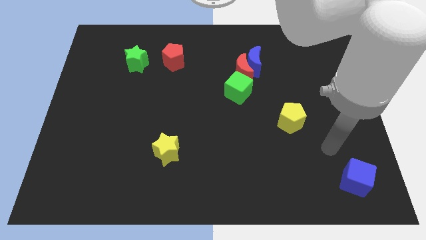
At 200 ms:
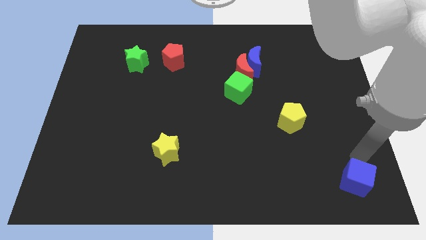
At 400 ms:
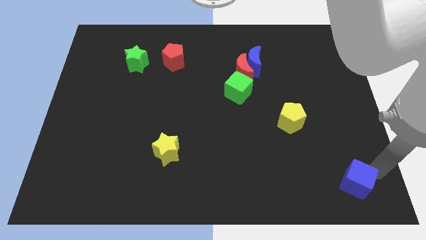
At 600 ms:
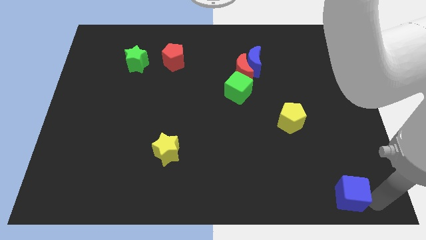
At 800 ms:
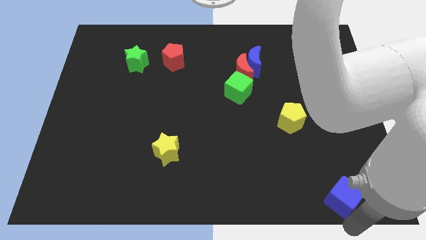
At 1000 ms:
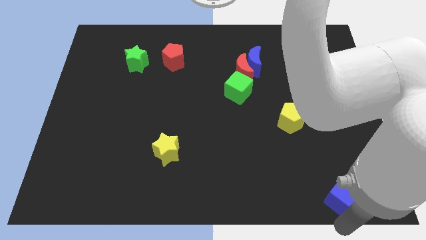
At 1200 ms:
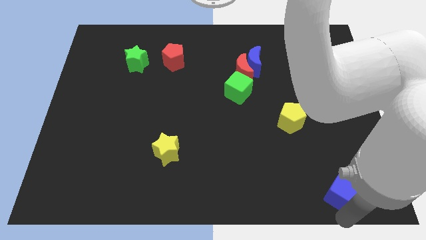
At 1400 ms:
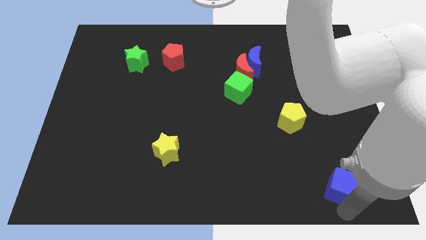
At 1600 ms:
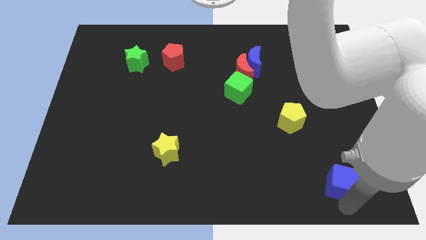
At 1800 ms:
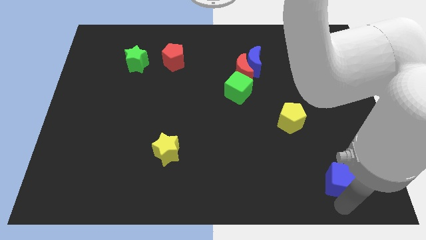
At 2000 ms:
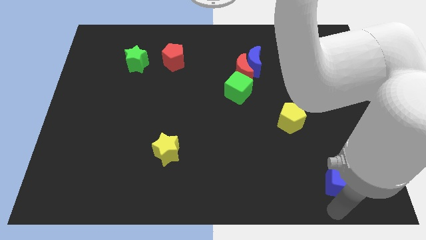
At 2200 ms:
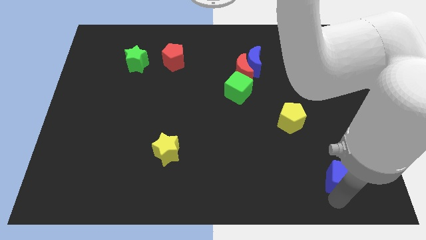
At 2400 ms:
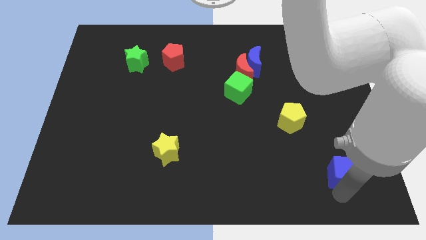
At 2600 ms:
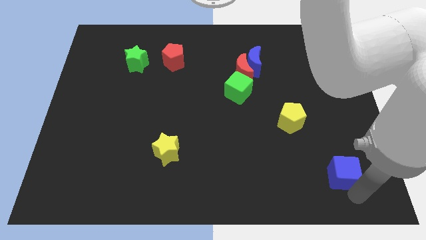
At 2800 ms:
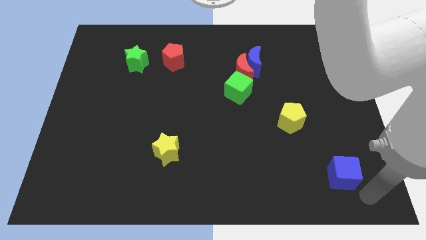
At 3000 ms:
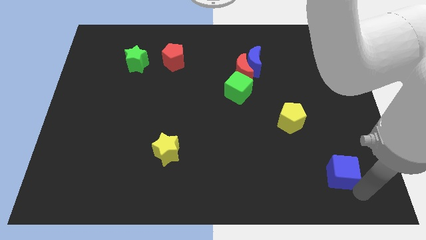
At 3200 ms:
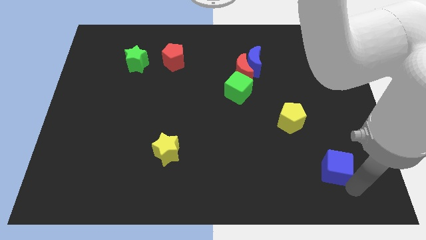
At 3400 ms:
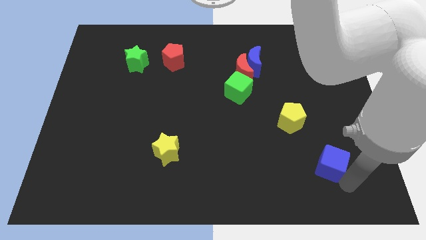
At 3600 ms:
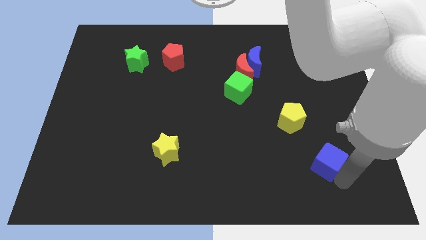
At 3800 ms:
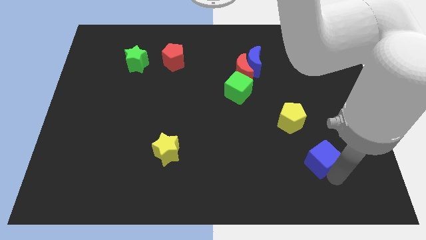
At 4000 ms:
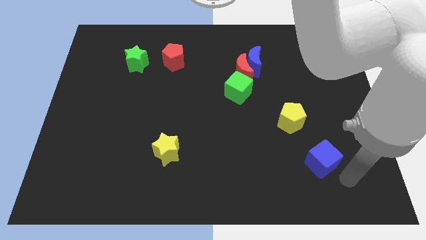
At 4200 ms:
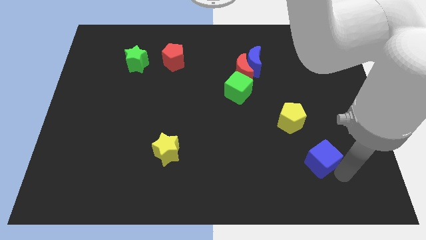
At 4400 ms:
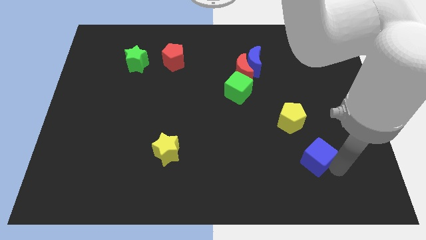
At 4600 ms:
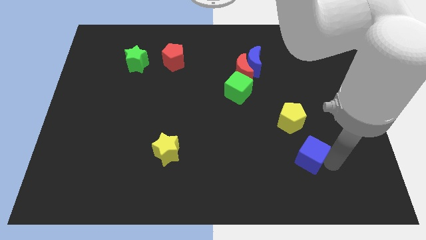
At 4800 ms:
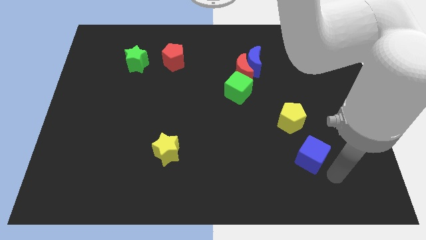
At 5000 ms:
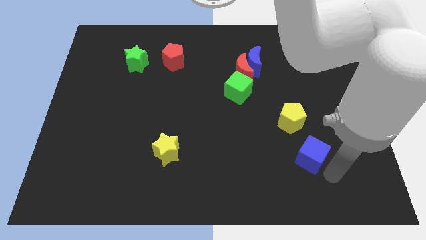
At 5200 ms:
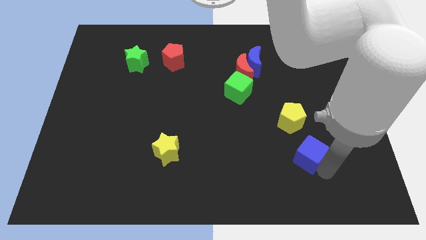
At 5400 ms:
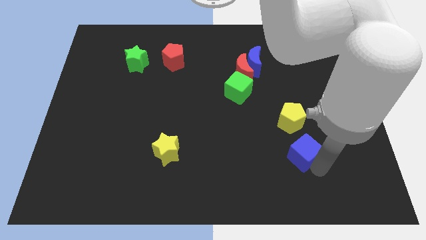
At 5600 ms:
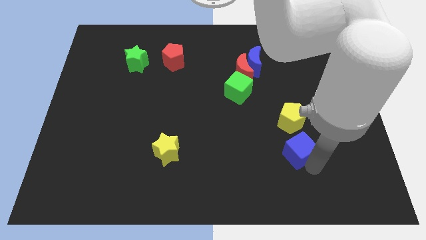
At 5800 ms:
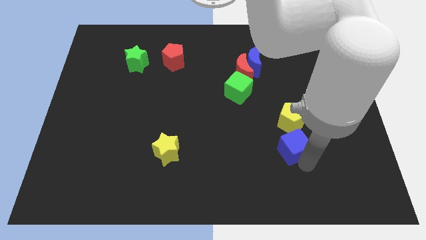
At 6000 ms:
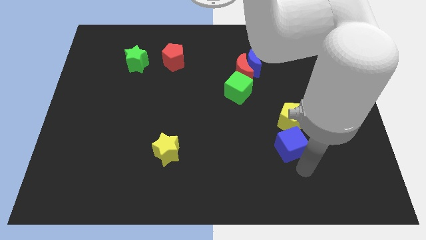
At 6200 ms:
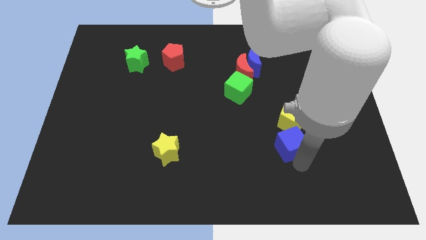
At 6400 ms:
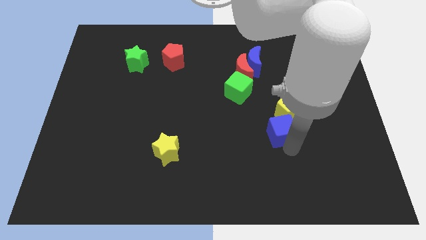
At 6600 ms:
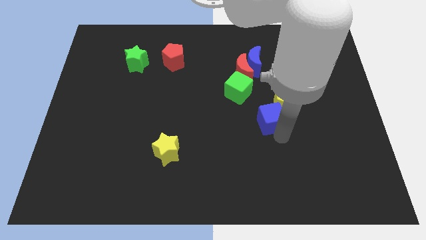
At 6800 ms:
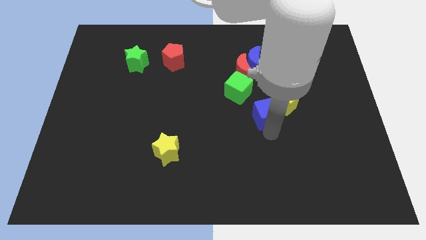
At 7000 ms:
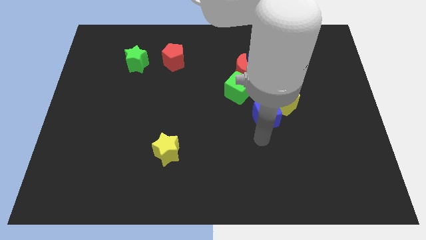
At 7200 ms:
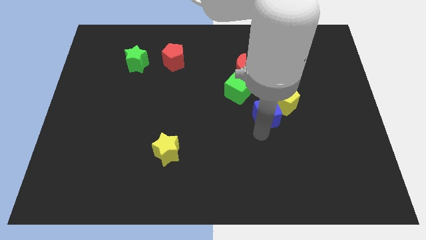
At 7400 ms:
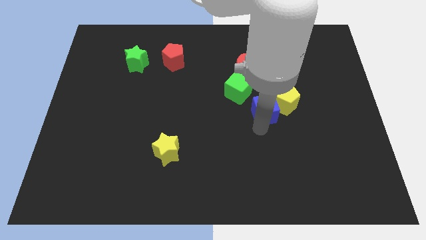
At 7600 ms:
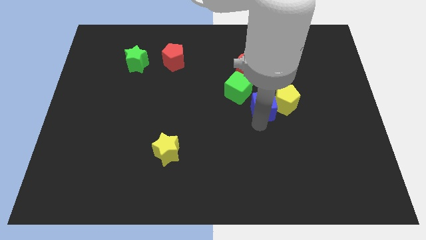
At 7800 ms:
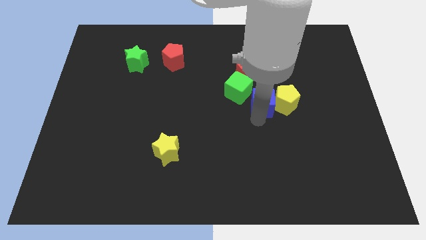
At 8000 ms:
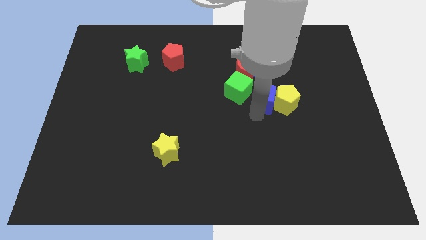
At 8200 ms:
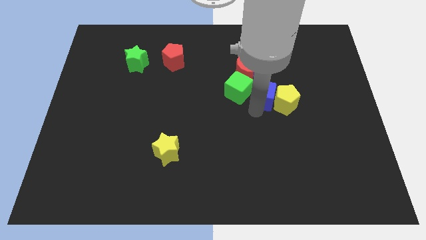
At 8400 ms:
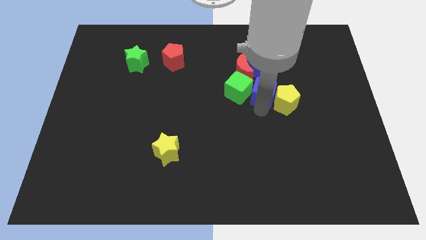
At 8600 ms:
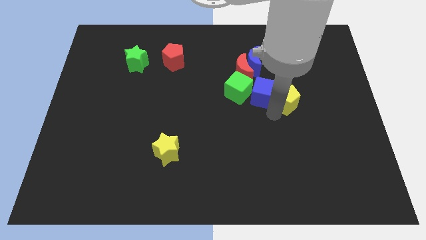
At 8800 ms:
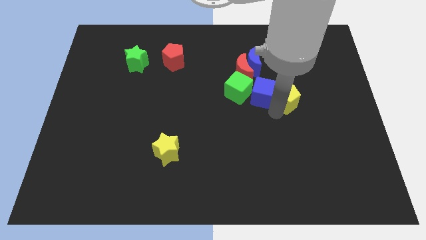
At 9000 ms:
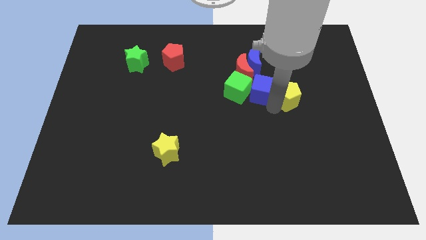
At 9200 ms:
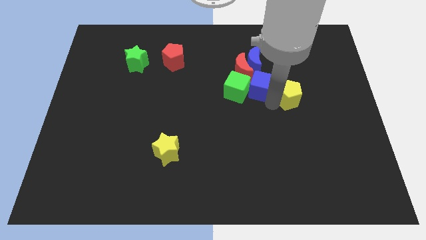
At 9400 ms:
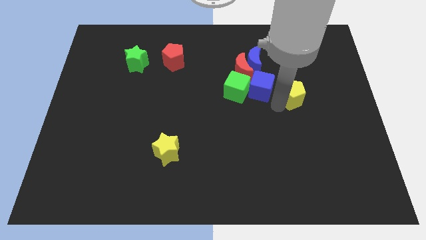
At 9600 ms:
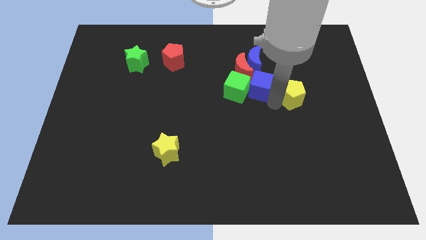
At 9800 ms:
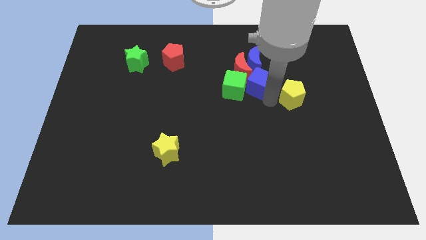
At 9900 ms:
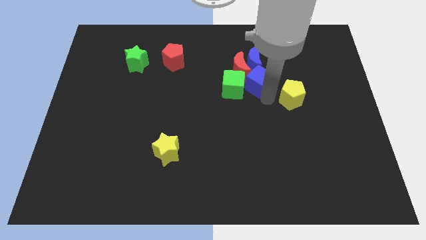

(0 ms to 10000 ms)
slide the blue cube next to the red moon

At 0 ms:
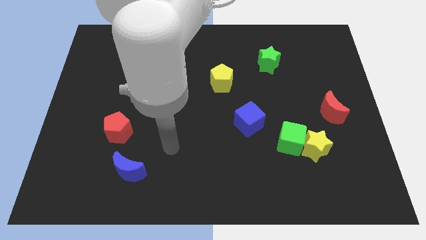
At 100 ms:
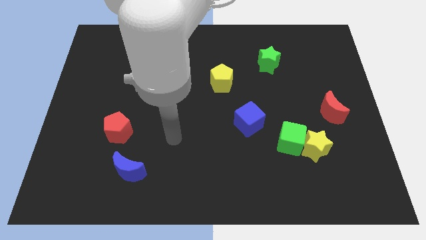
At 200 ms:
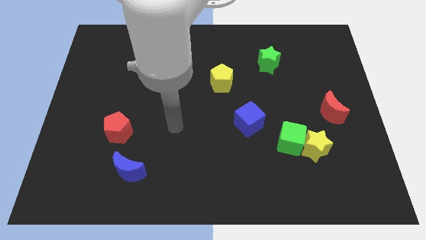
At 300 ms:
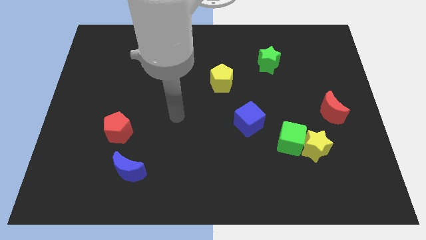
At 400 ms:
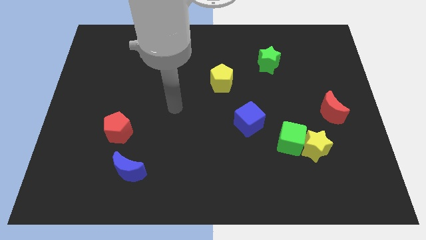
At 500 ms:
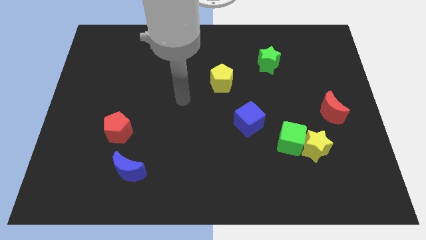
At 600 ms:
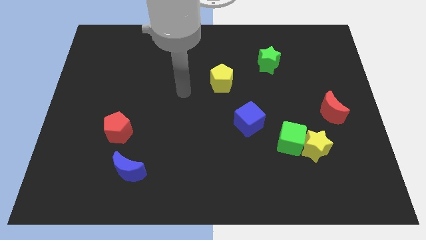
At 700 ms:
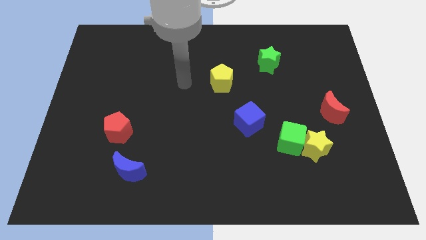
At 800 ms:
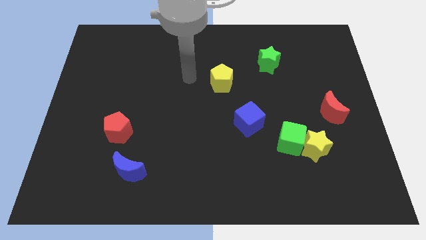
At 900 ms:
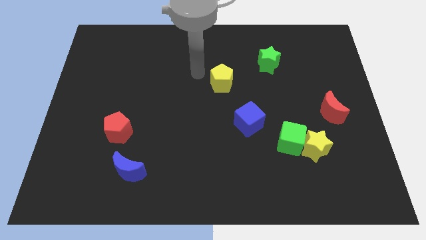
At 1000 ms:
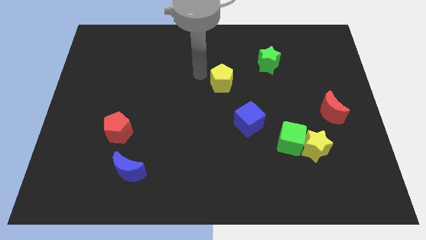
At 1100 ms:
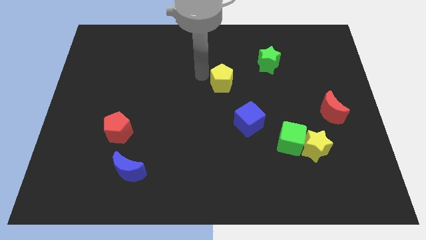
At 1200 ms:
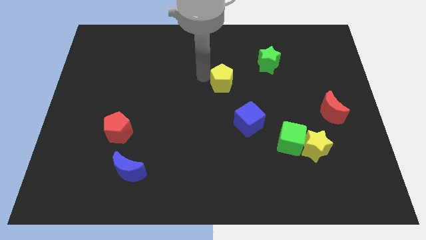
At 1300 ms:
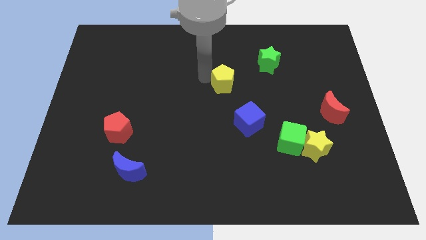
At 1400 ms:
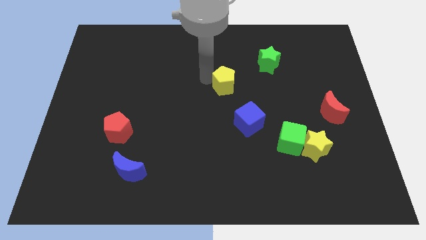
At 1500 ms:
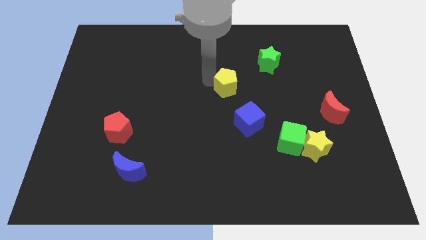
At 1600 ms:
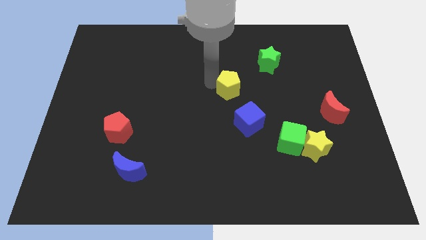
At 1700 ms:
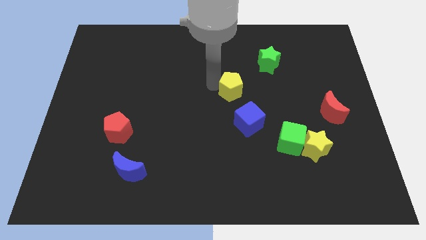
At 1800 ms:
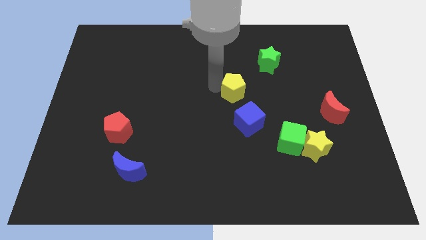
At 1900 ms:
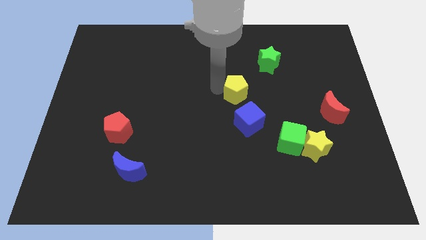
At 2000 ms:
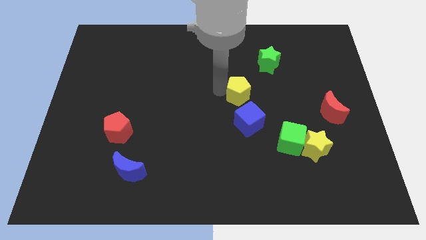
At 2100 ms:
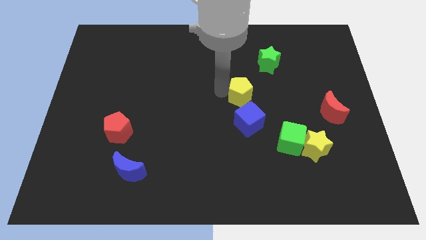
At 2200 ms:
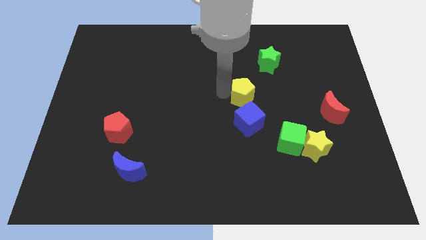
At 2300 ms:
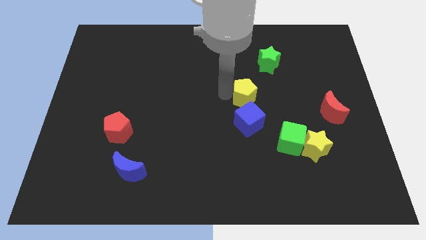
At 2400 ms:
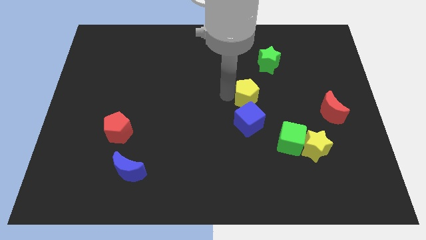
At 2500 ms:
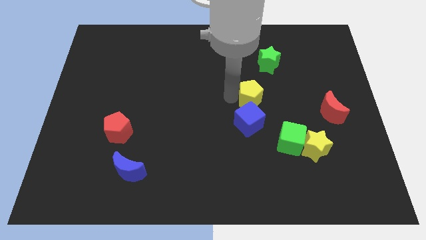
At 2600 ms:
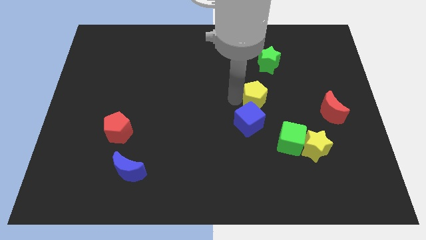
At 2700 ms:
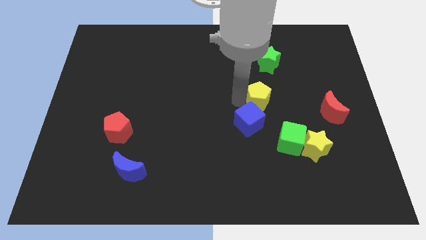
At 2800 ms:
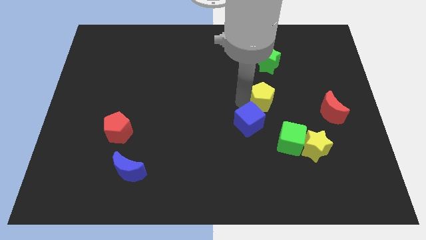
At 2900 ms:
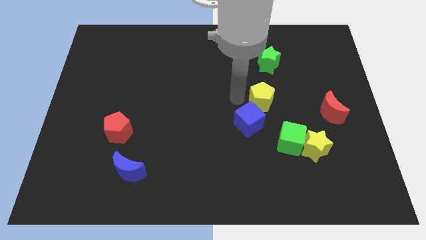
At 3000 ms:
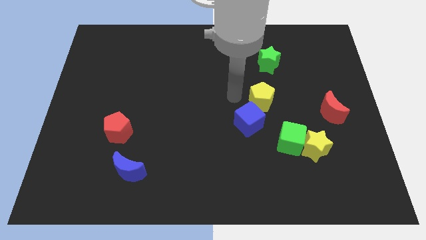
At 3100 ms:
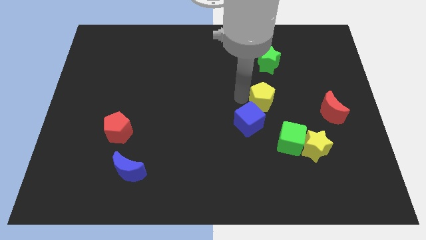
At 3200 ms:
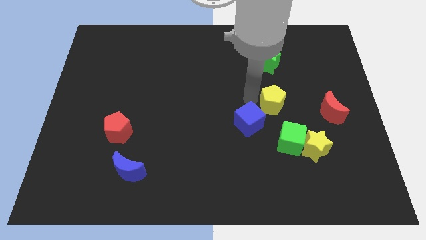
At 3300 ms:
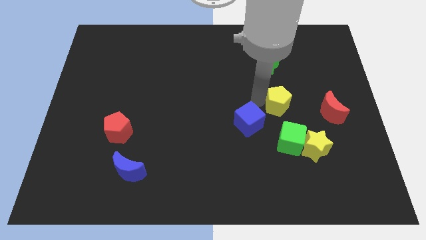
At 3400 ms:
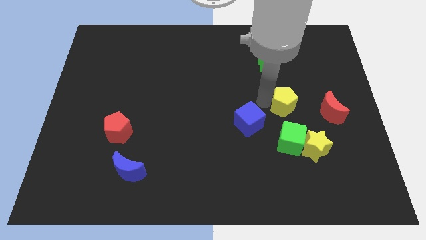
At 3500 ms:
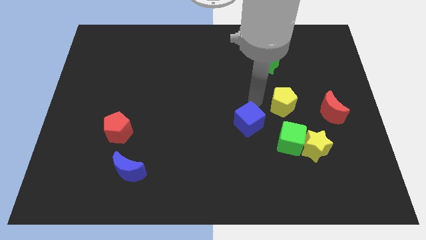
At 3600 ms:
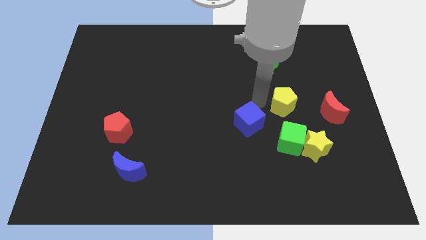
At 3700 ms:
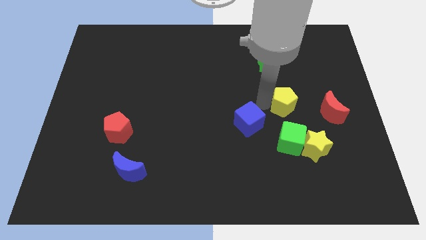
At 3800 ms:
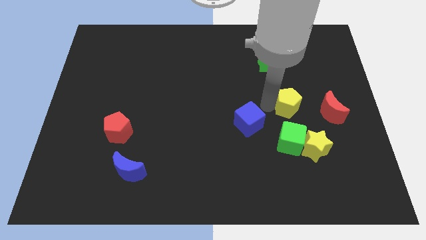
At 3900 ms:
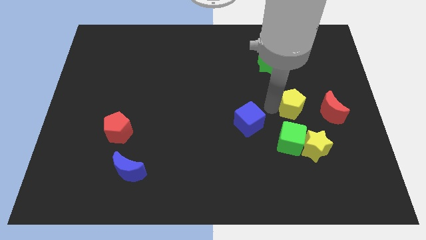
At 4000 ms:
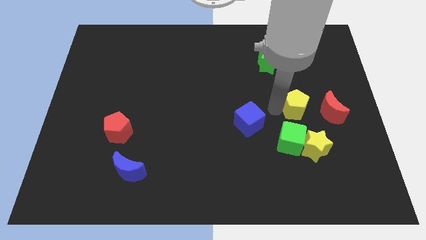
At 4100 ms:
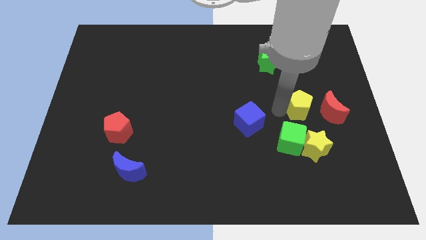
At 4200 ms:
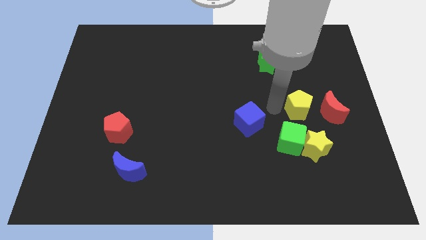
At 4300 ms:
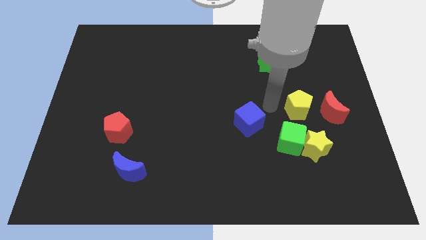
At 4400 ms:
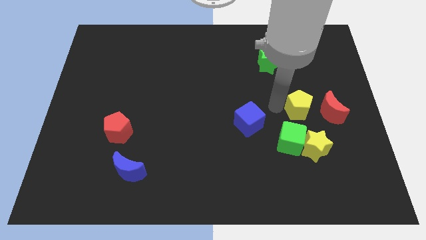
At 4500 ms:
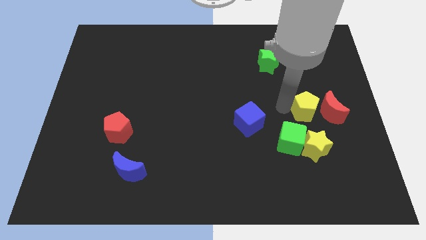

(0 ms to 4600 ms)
push the yellow pentagon to the red moon
